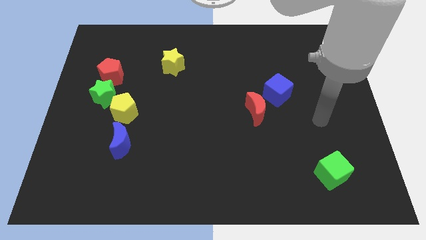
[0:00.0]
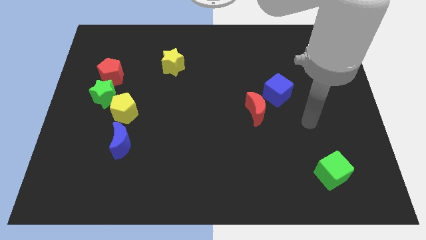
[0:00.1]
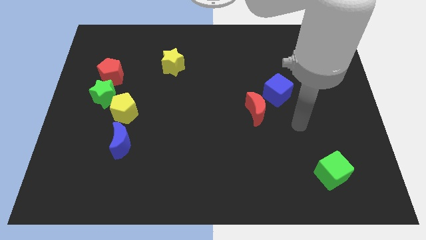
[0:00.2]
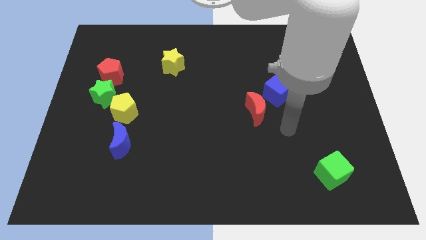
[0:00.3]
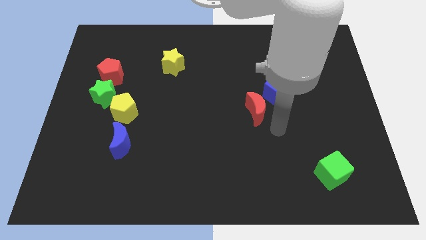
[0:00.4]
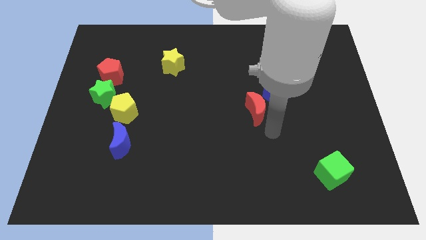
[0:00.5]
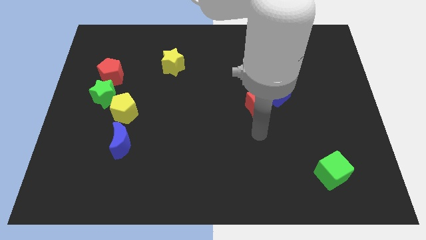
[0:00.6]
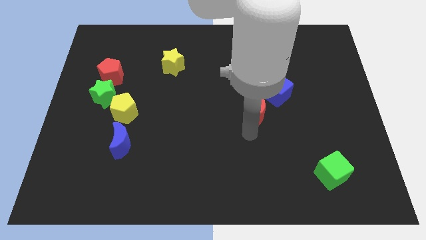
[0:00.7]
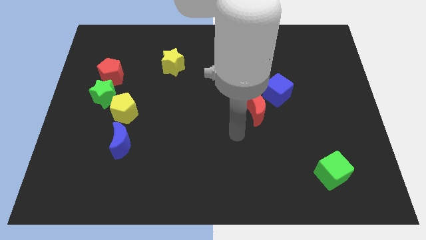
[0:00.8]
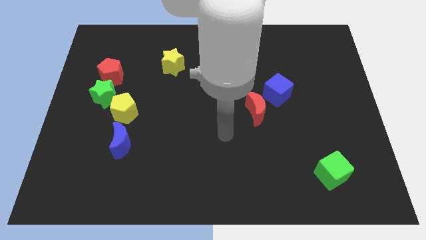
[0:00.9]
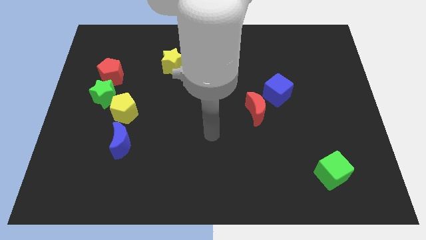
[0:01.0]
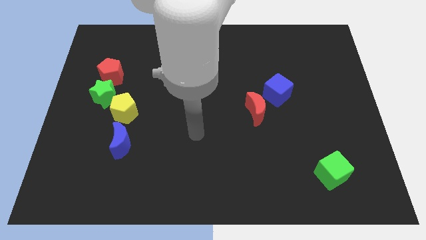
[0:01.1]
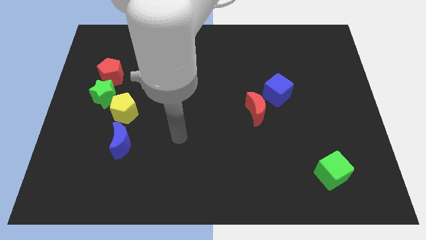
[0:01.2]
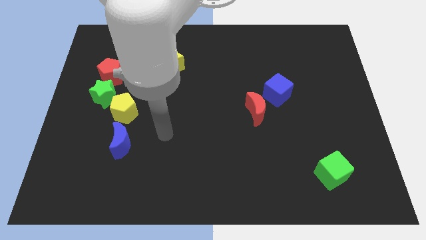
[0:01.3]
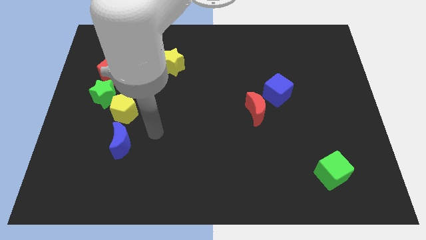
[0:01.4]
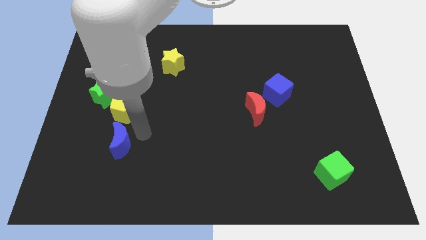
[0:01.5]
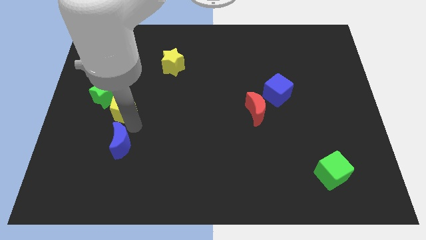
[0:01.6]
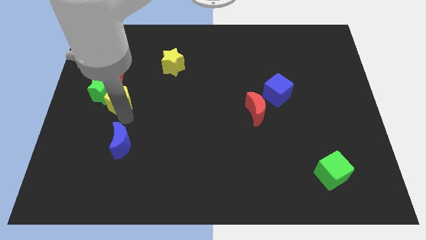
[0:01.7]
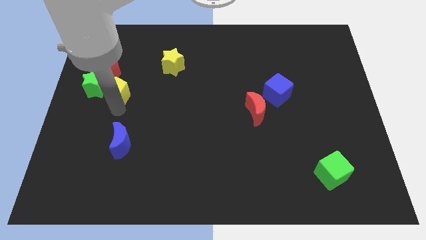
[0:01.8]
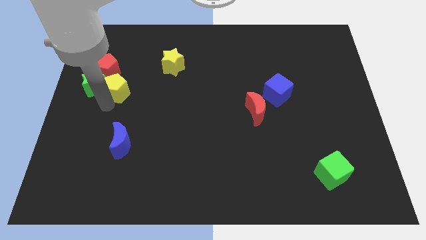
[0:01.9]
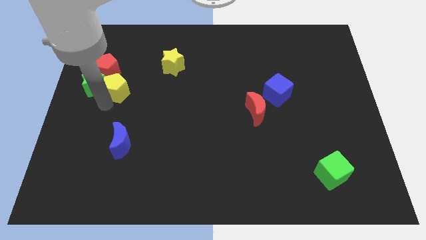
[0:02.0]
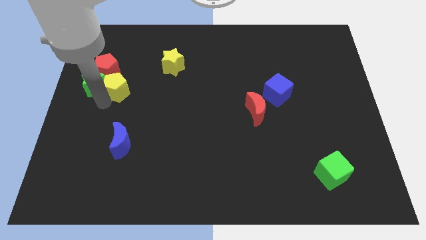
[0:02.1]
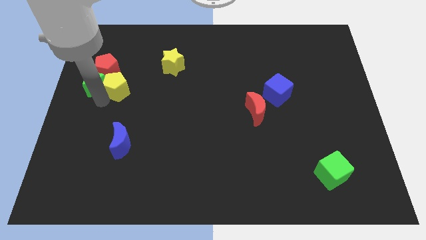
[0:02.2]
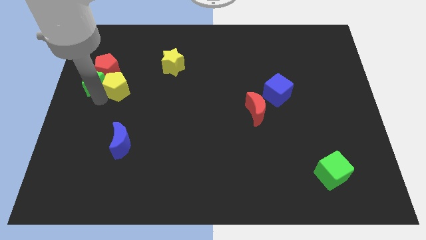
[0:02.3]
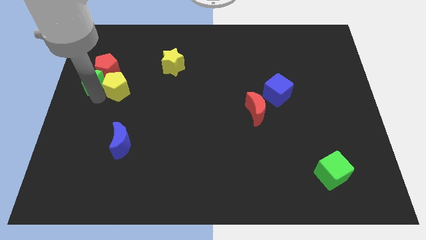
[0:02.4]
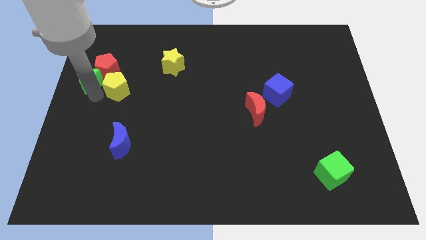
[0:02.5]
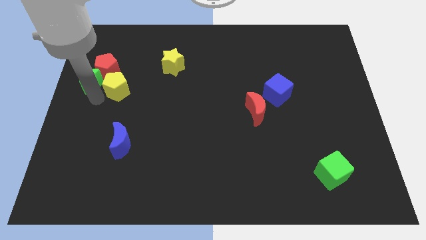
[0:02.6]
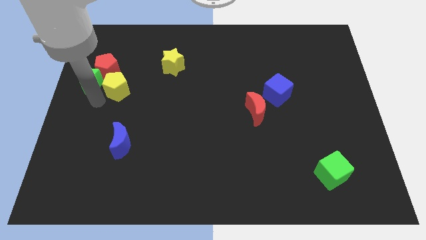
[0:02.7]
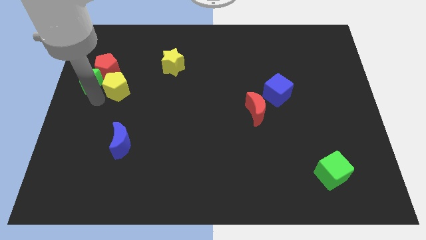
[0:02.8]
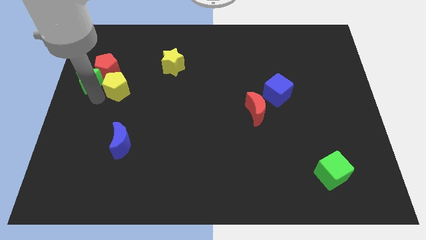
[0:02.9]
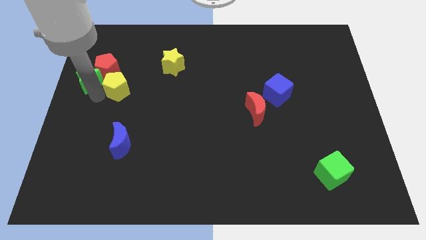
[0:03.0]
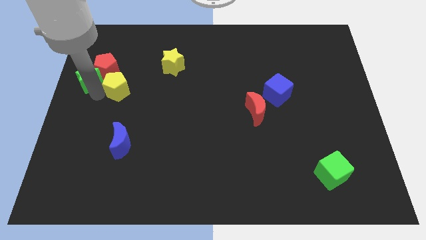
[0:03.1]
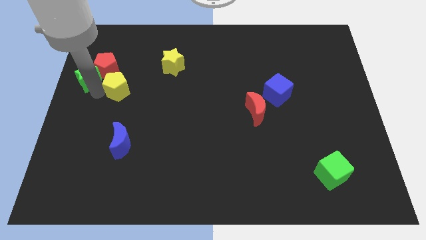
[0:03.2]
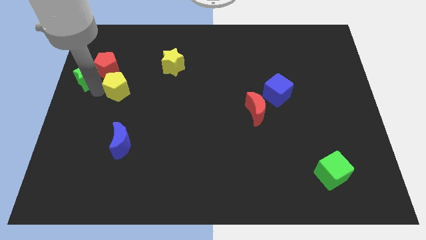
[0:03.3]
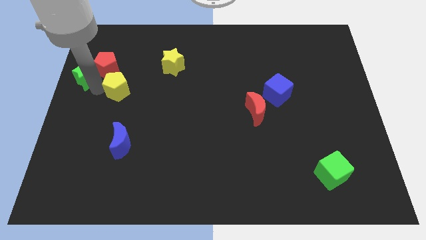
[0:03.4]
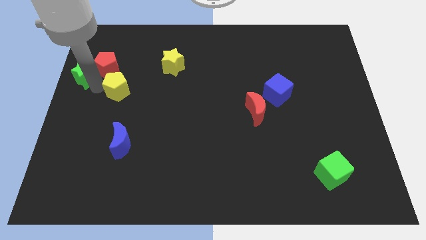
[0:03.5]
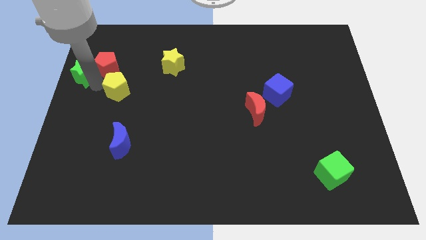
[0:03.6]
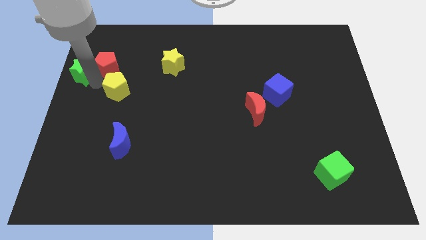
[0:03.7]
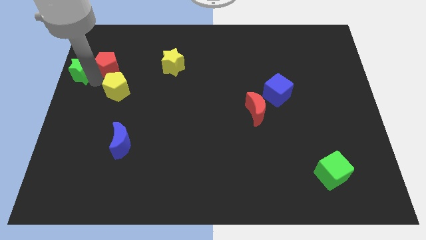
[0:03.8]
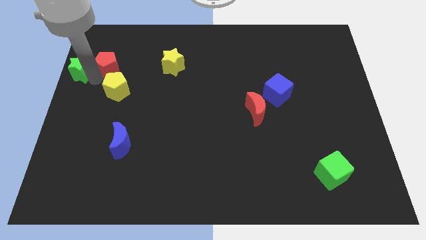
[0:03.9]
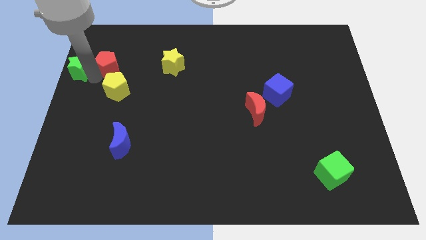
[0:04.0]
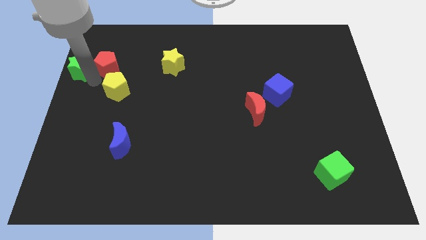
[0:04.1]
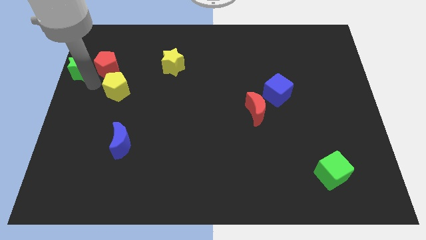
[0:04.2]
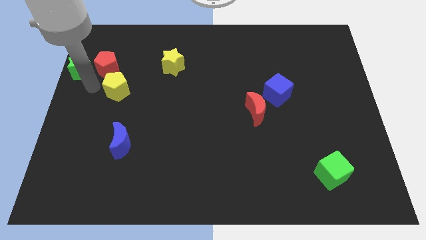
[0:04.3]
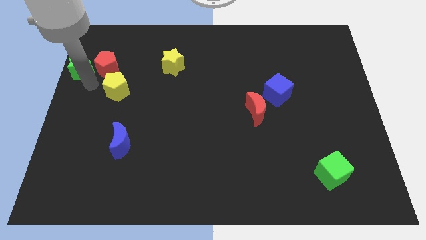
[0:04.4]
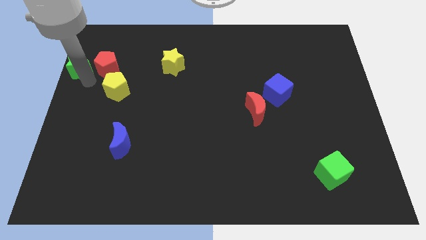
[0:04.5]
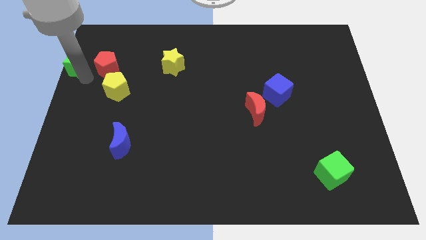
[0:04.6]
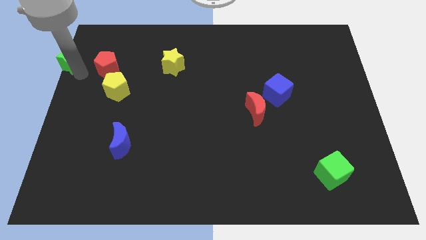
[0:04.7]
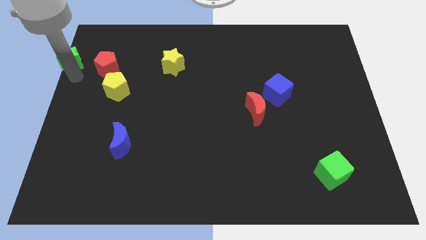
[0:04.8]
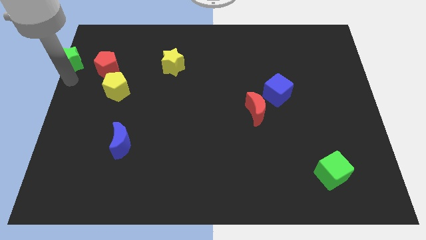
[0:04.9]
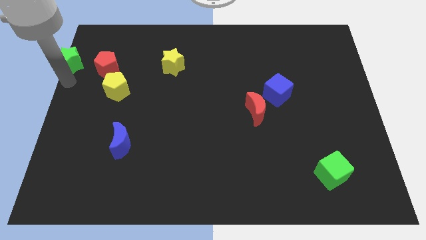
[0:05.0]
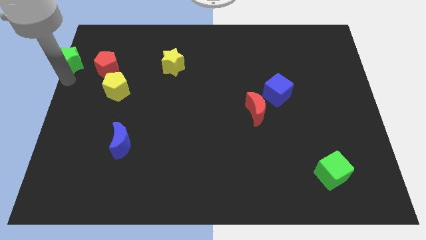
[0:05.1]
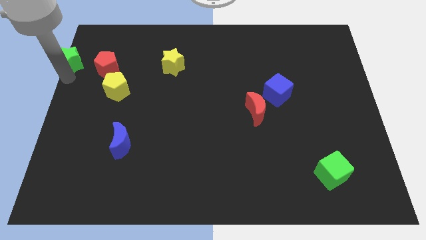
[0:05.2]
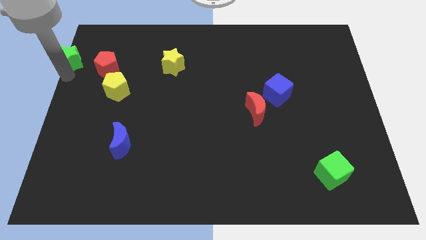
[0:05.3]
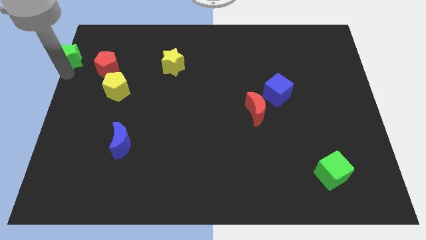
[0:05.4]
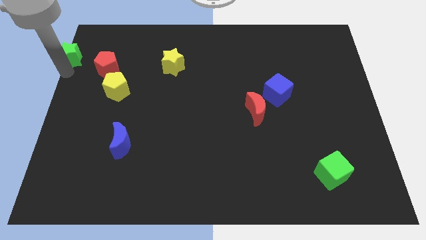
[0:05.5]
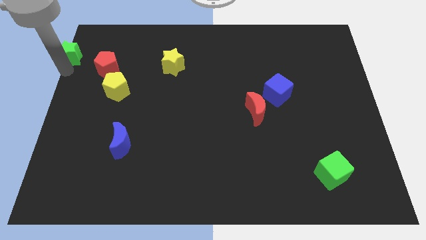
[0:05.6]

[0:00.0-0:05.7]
slide the green star to the top left of the board
